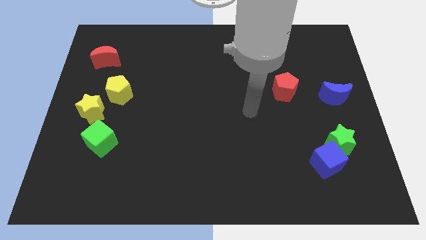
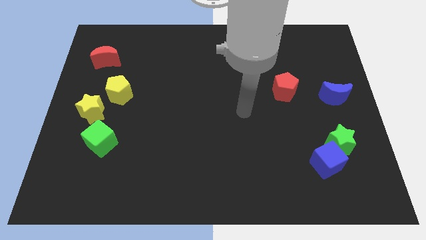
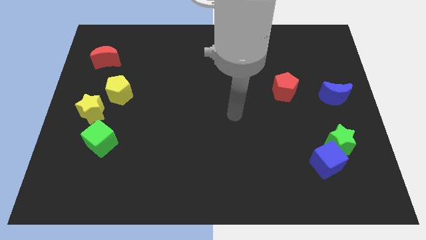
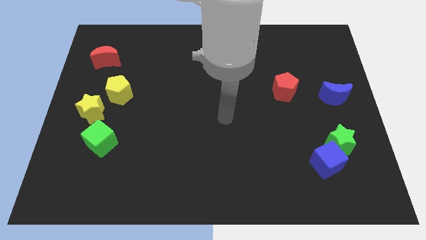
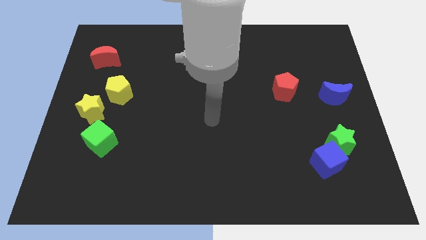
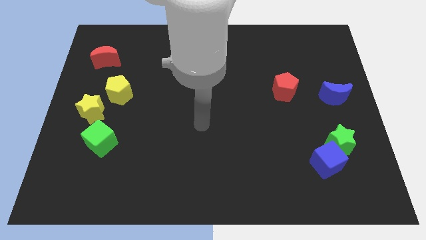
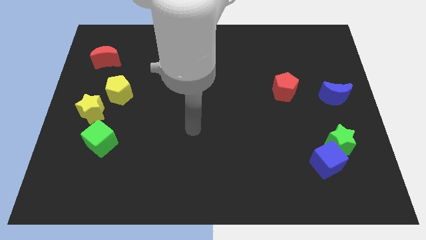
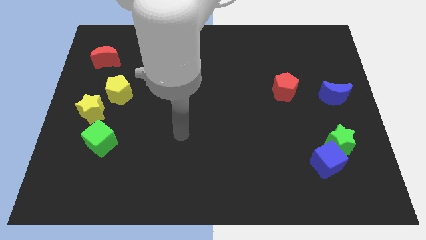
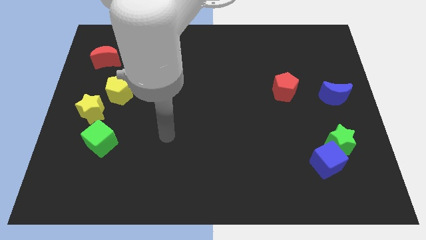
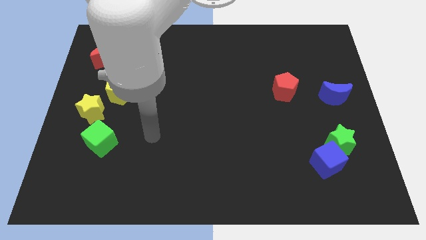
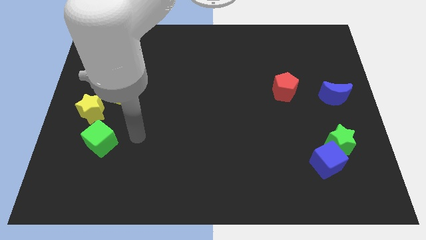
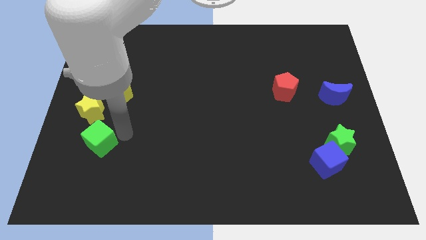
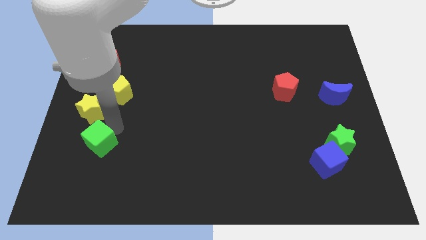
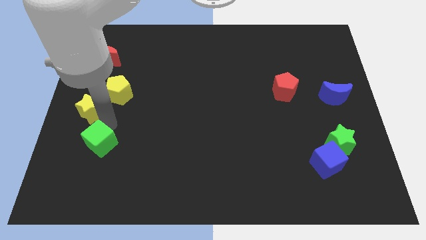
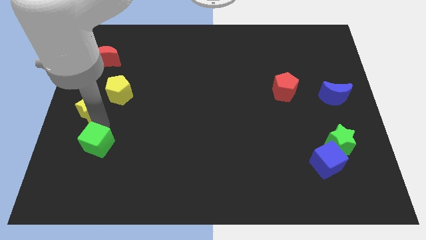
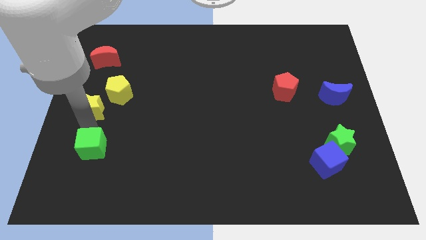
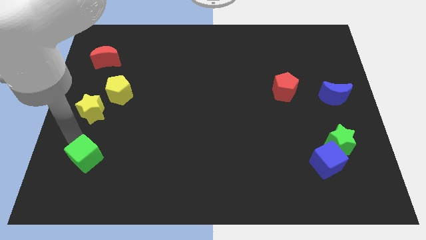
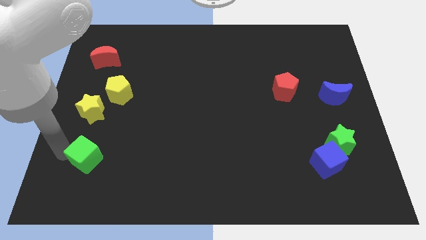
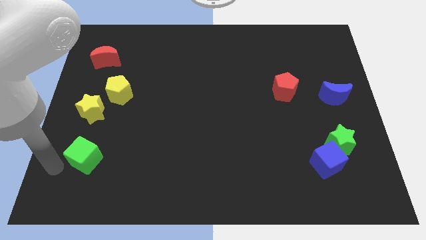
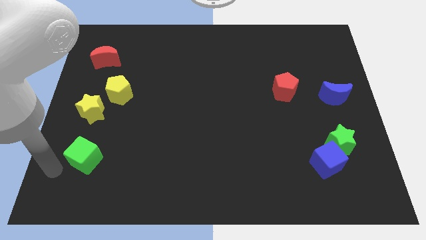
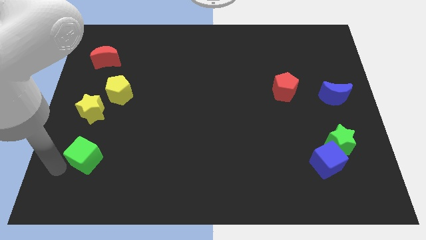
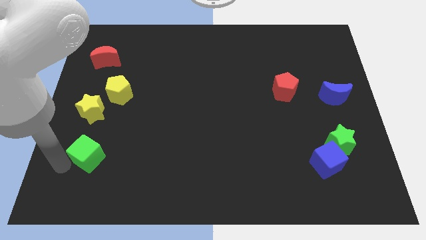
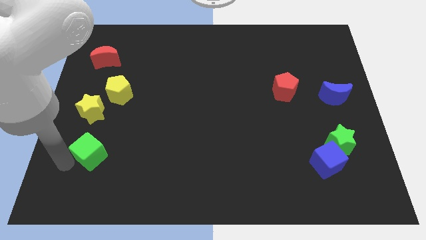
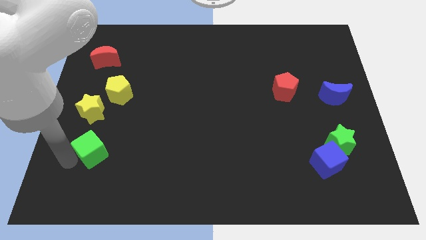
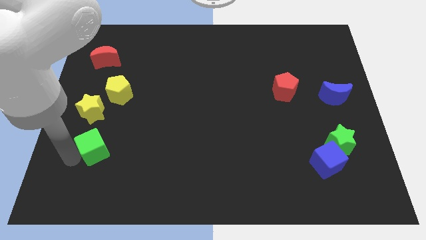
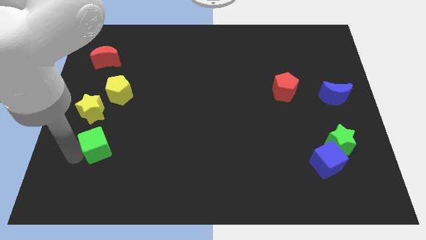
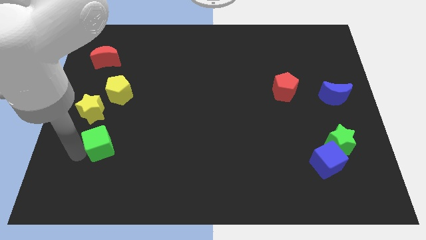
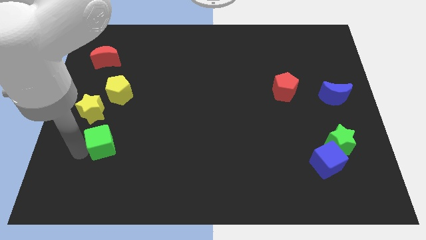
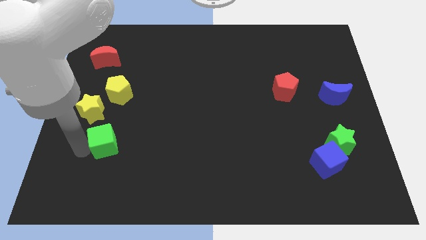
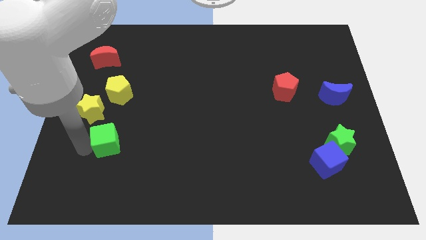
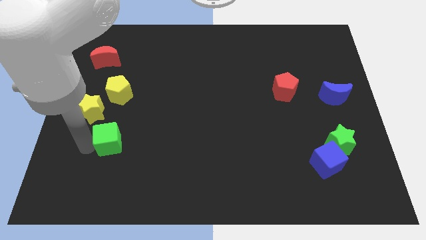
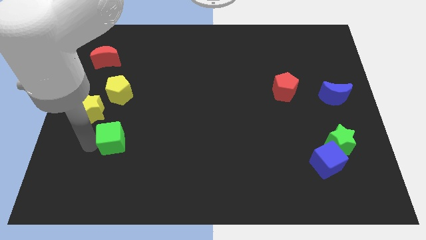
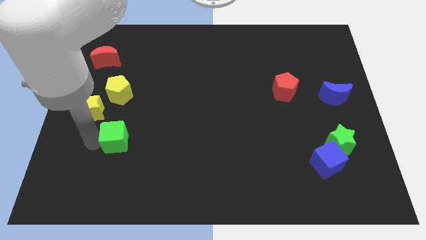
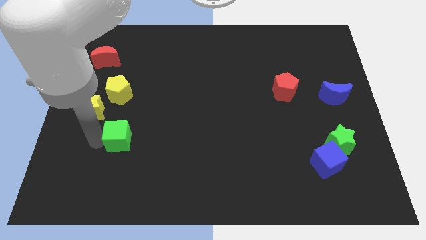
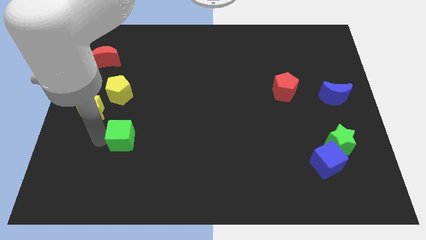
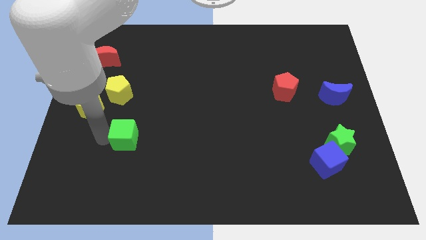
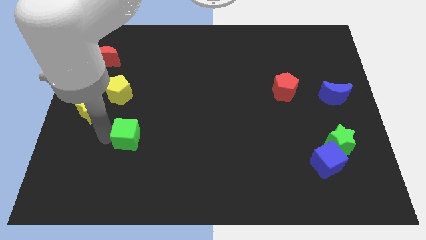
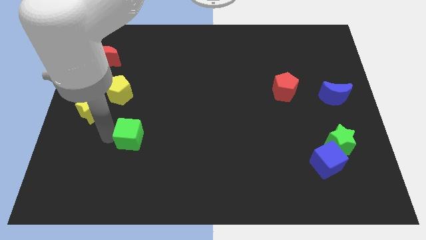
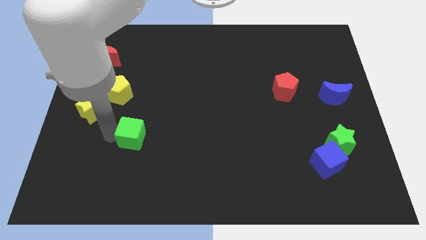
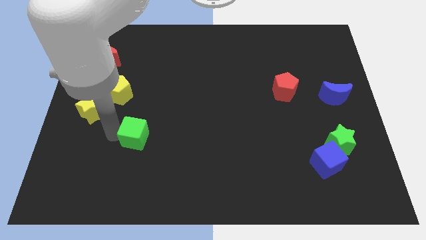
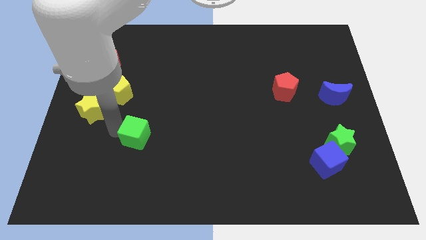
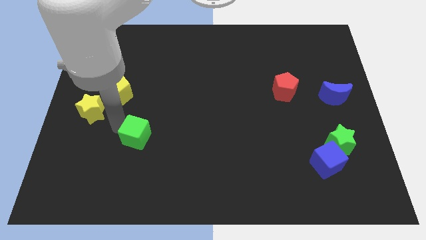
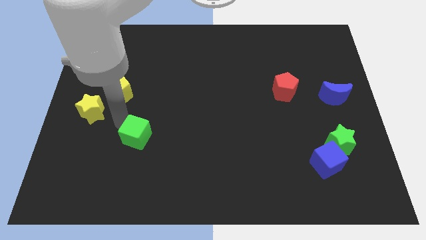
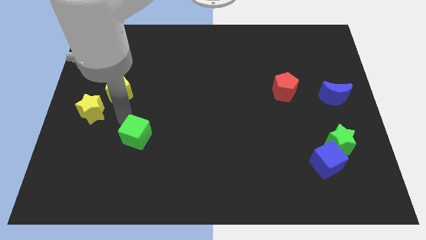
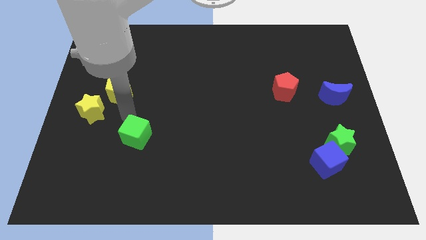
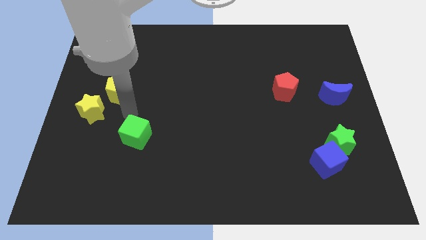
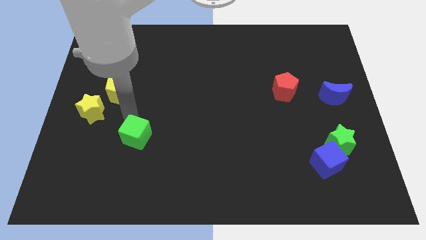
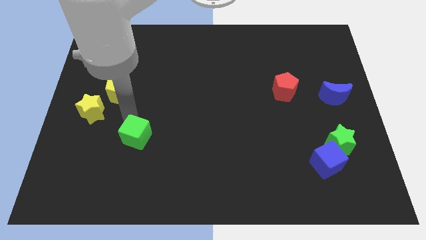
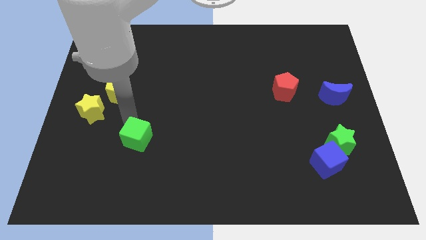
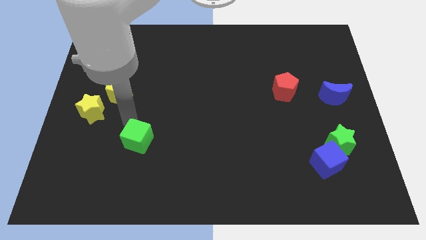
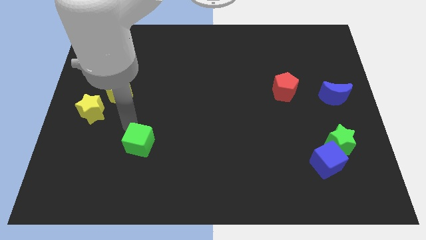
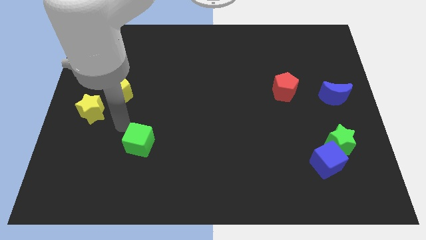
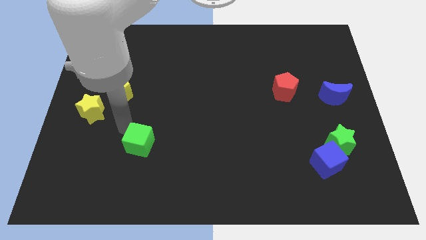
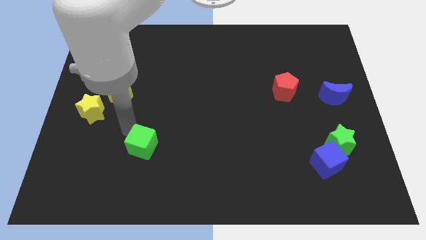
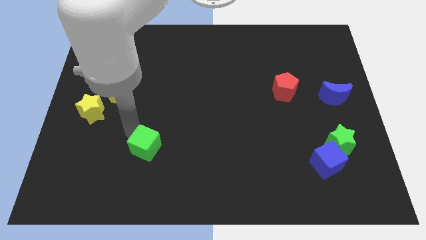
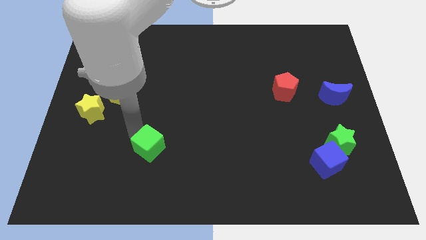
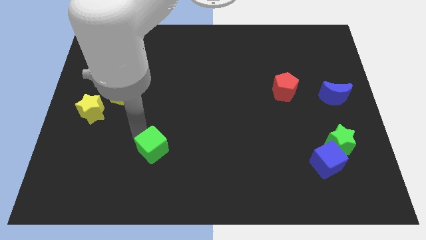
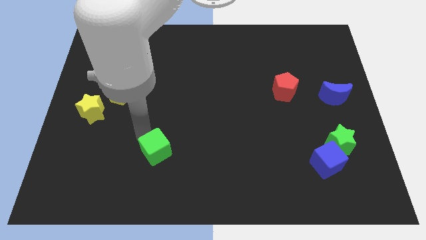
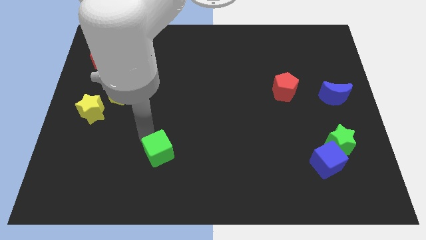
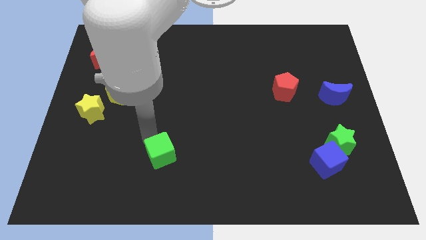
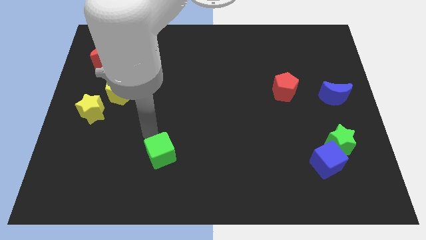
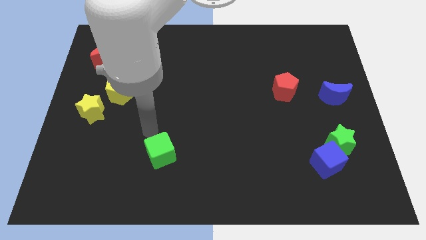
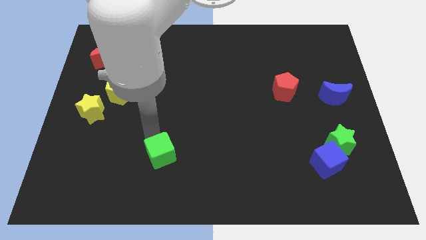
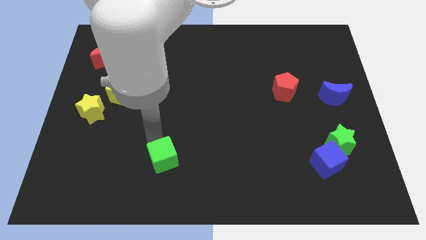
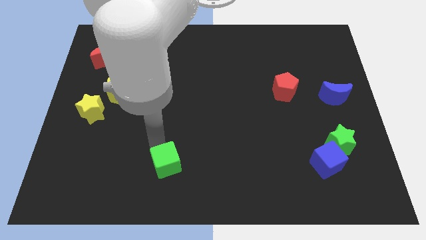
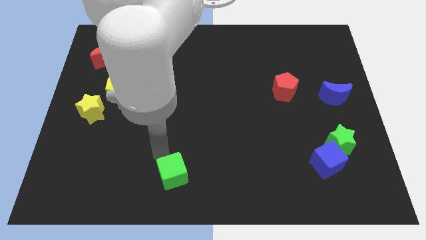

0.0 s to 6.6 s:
push the green cube to the bottom side
